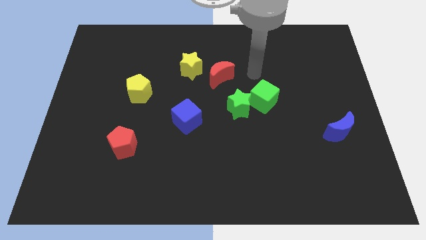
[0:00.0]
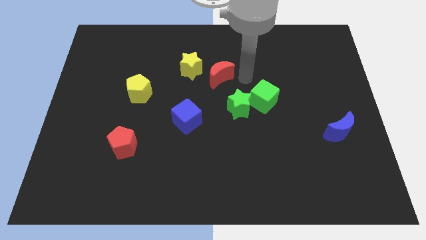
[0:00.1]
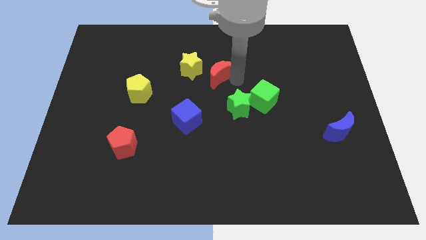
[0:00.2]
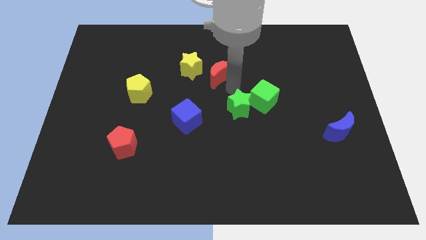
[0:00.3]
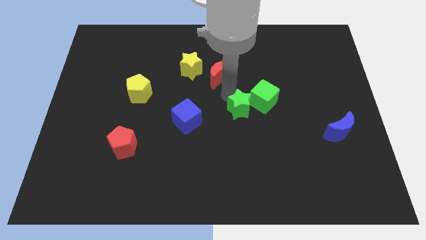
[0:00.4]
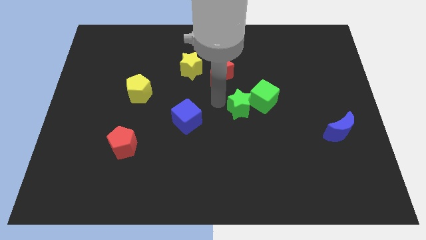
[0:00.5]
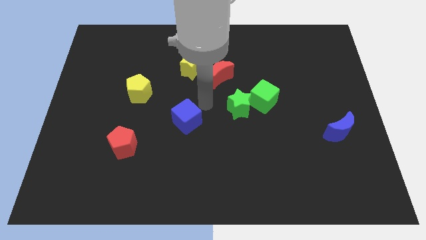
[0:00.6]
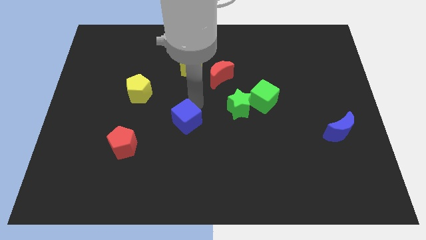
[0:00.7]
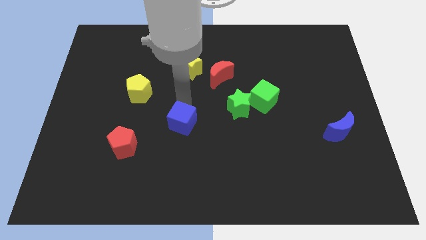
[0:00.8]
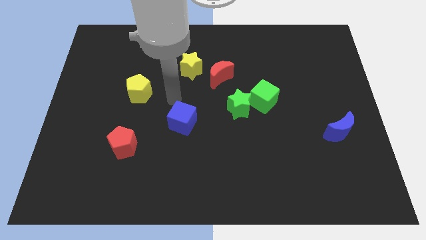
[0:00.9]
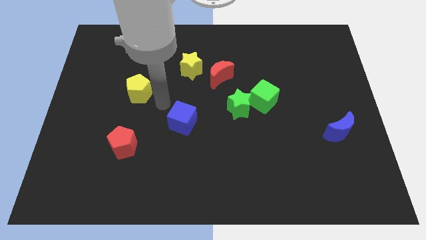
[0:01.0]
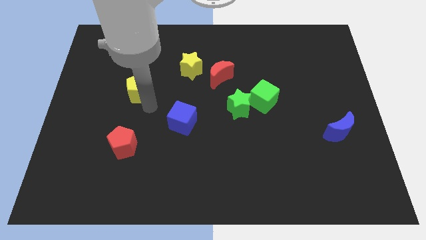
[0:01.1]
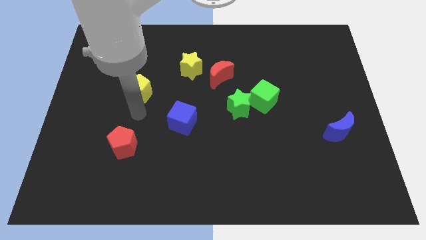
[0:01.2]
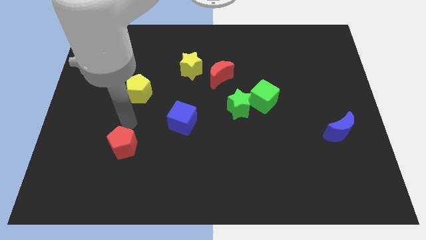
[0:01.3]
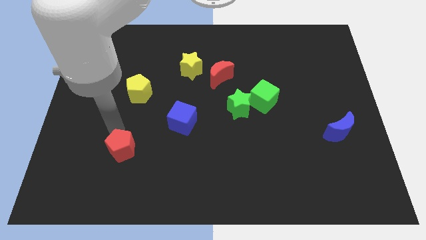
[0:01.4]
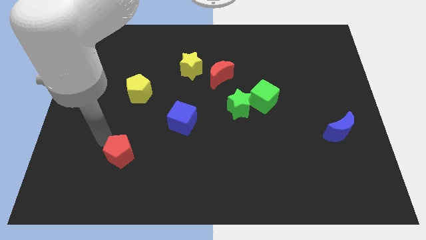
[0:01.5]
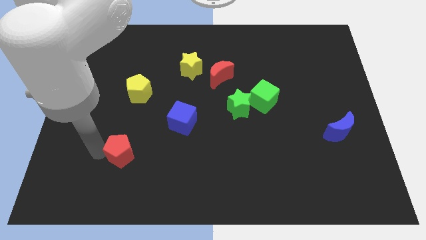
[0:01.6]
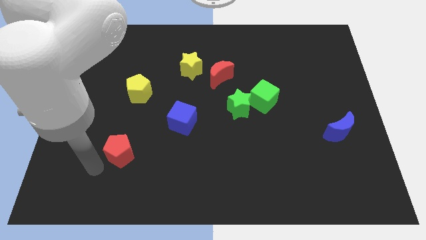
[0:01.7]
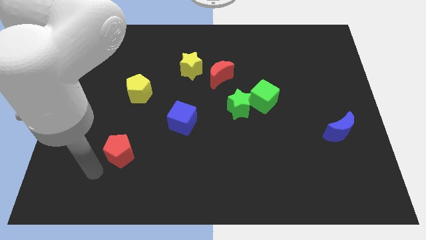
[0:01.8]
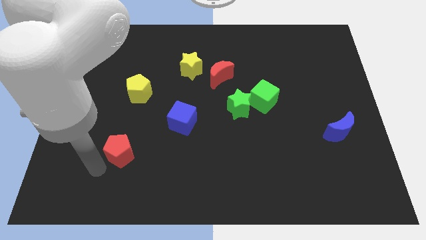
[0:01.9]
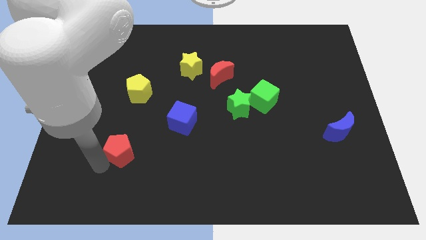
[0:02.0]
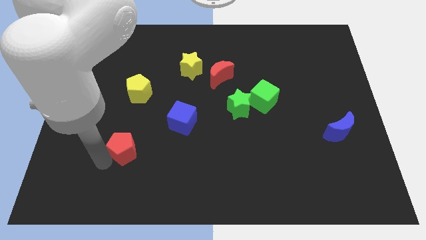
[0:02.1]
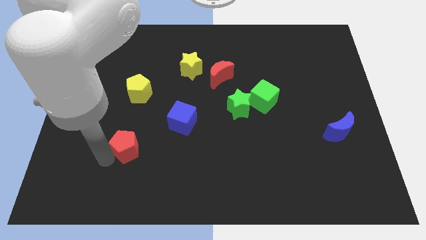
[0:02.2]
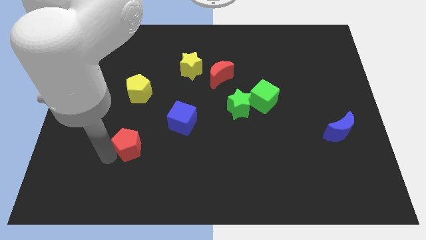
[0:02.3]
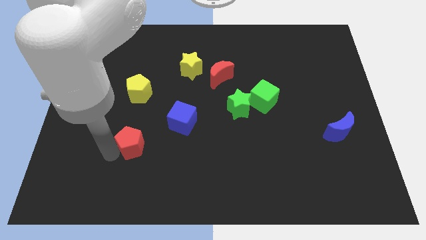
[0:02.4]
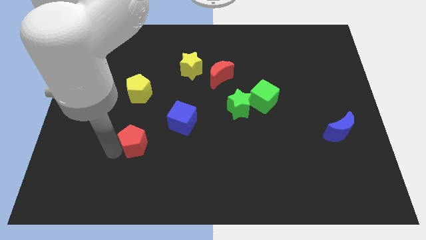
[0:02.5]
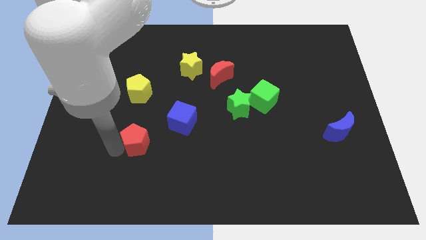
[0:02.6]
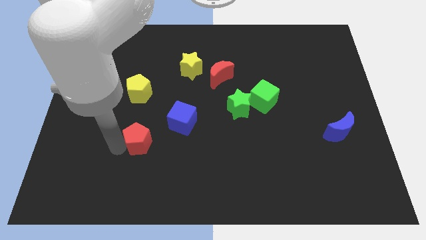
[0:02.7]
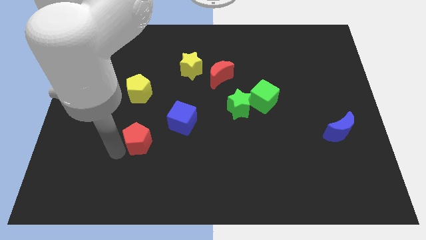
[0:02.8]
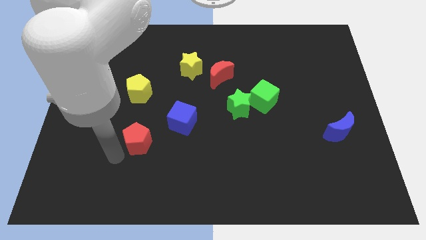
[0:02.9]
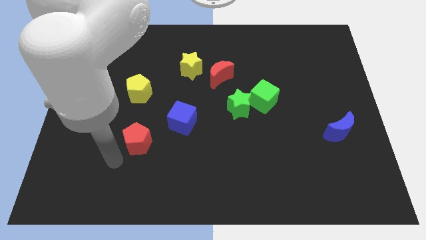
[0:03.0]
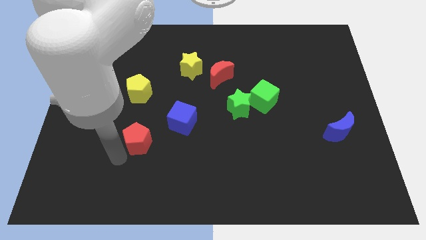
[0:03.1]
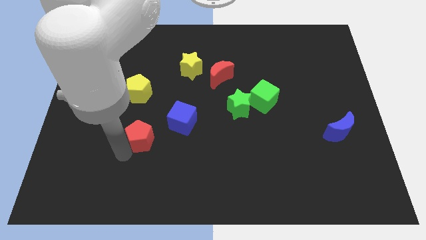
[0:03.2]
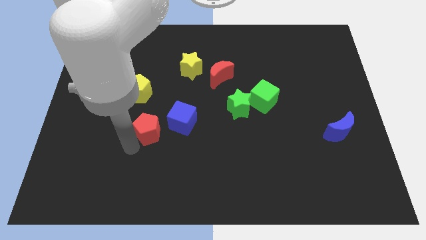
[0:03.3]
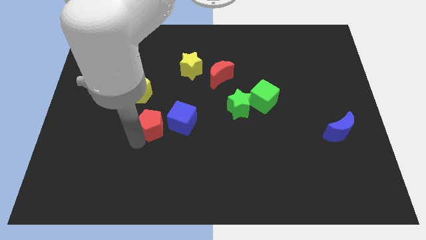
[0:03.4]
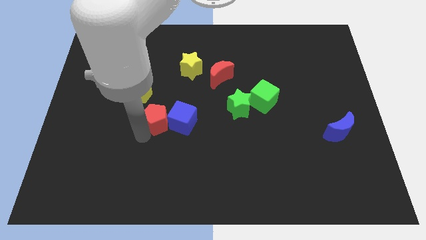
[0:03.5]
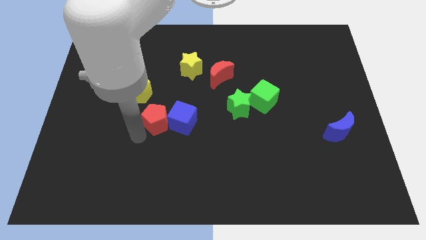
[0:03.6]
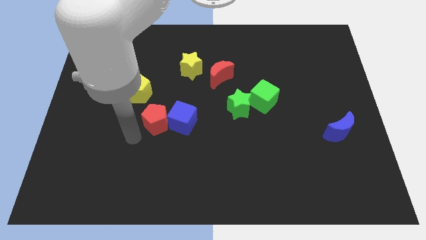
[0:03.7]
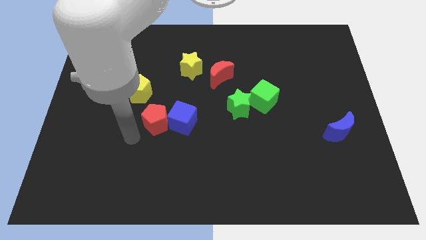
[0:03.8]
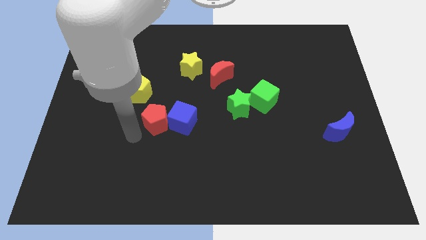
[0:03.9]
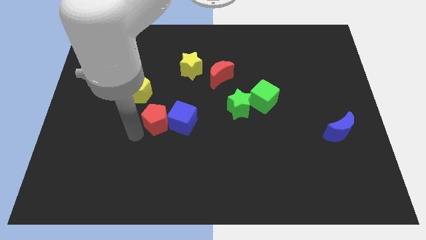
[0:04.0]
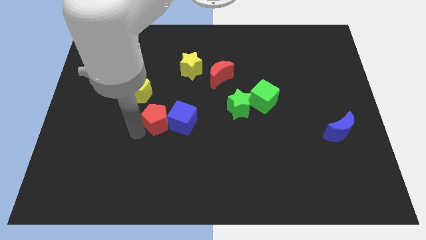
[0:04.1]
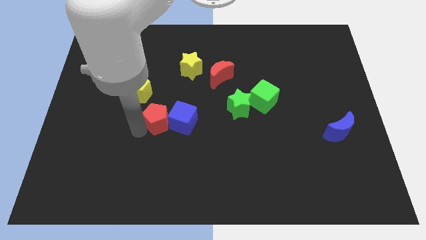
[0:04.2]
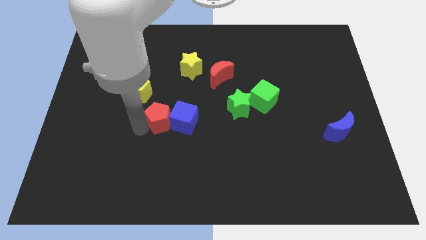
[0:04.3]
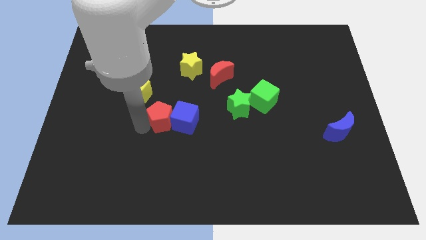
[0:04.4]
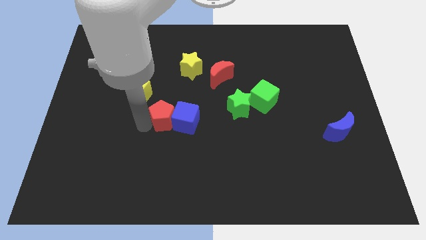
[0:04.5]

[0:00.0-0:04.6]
move the red pentagon to the center of the board

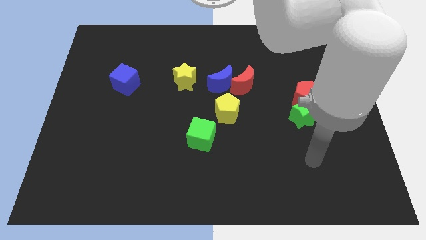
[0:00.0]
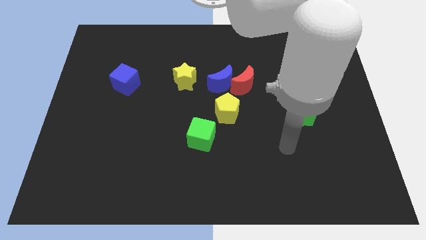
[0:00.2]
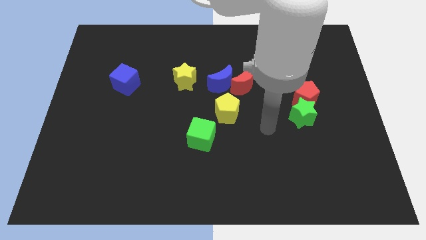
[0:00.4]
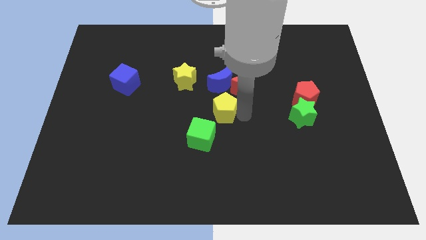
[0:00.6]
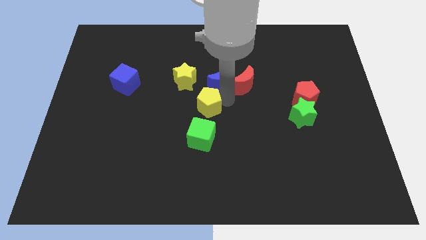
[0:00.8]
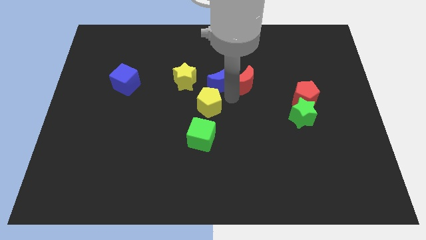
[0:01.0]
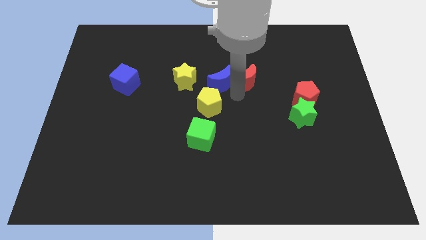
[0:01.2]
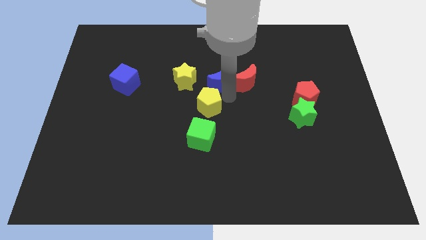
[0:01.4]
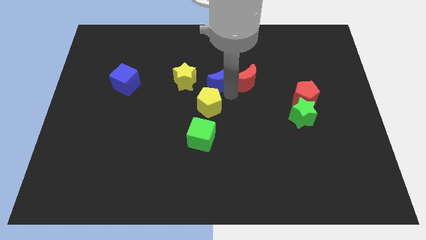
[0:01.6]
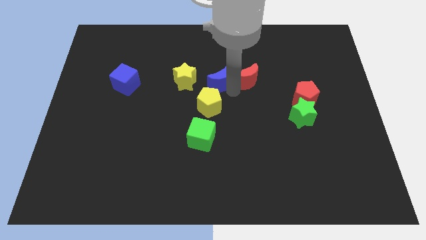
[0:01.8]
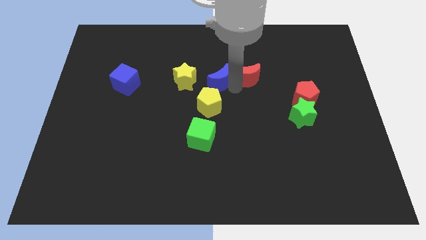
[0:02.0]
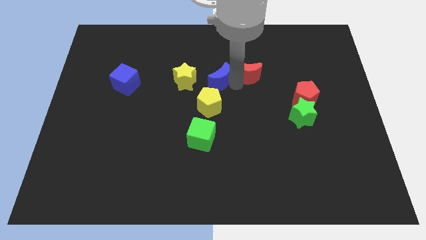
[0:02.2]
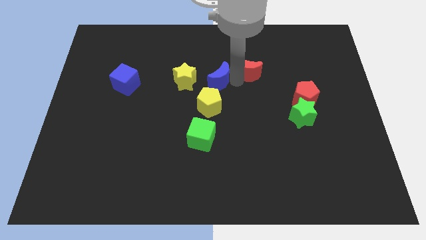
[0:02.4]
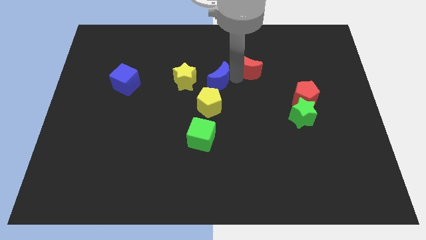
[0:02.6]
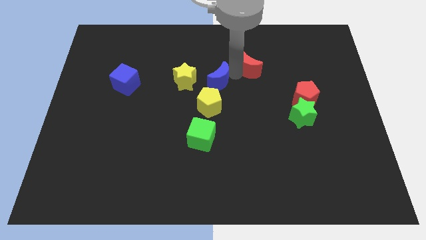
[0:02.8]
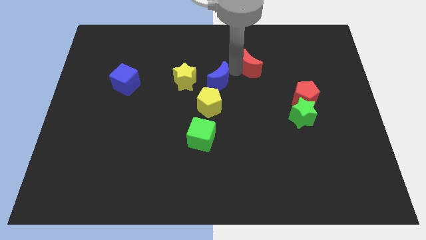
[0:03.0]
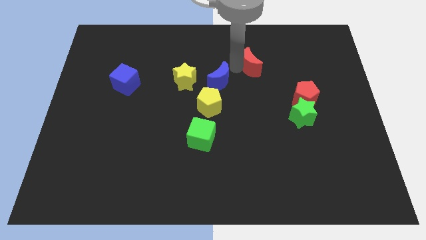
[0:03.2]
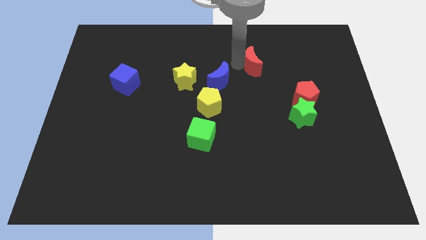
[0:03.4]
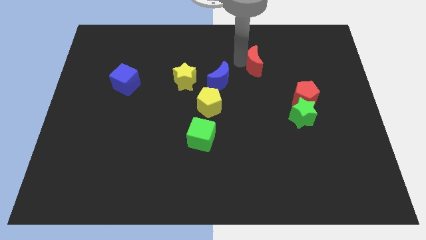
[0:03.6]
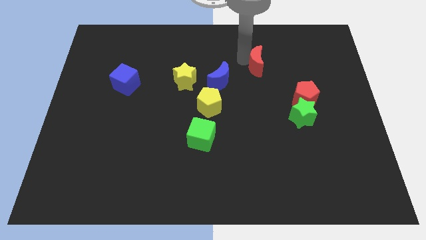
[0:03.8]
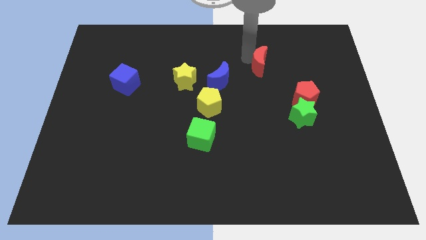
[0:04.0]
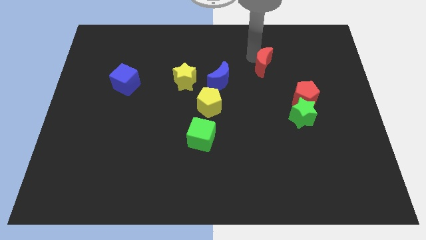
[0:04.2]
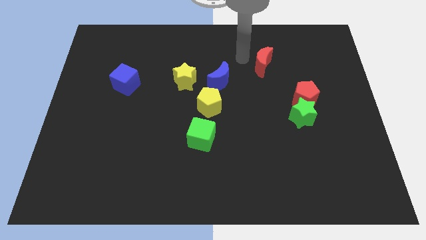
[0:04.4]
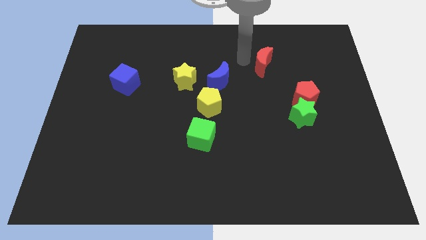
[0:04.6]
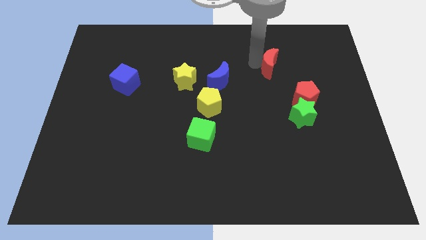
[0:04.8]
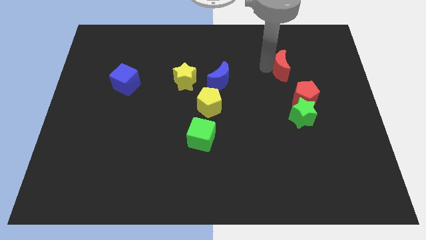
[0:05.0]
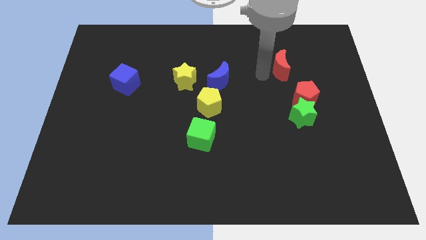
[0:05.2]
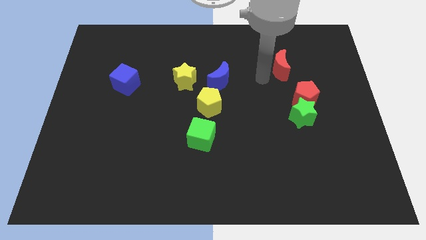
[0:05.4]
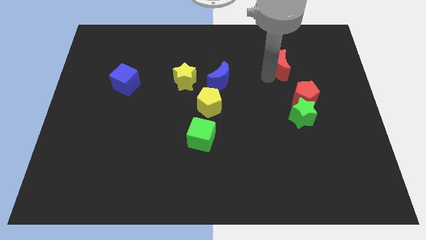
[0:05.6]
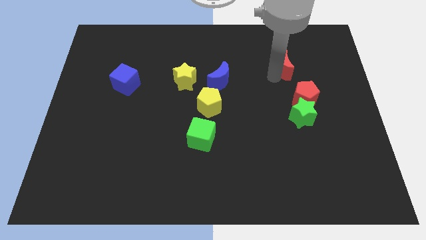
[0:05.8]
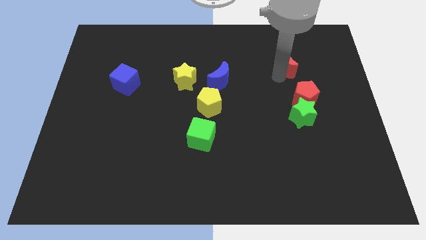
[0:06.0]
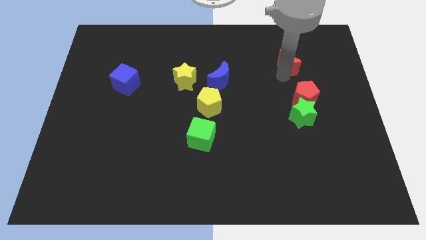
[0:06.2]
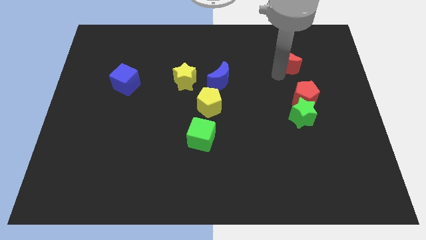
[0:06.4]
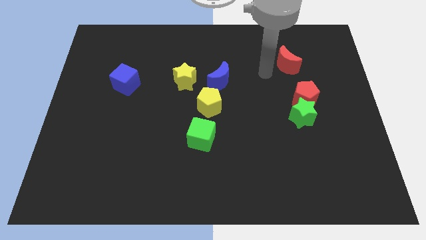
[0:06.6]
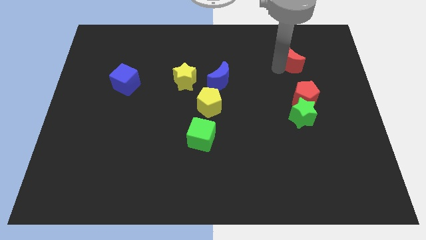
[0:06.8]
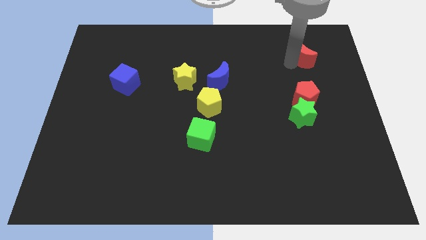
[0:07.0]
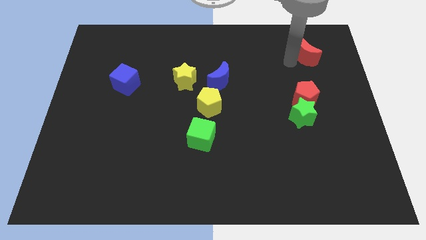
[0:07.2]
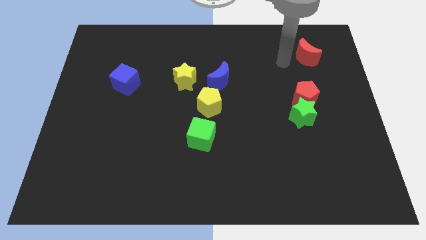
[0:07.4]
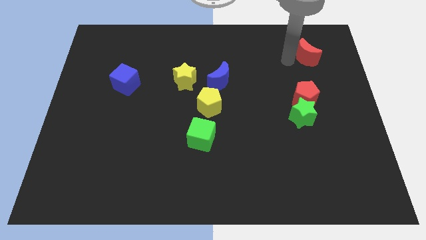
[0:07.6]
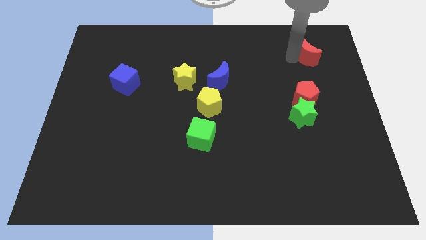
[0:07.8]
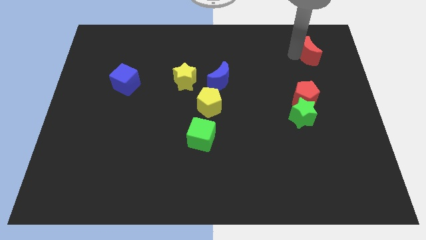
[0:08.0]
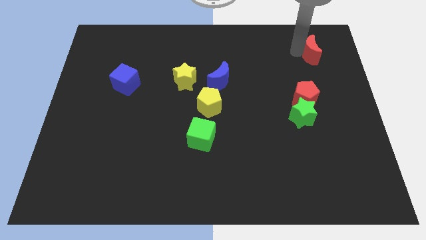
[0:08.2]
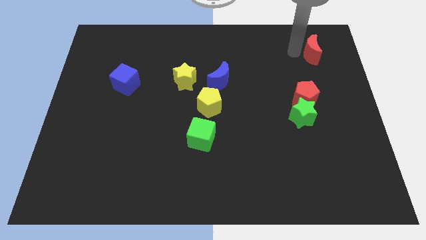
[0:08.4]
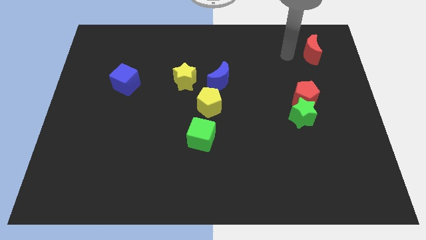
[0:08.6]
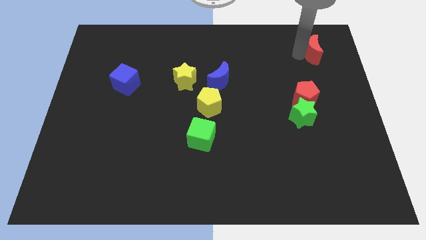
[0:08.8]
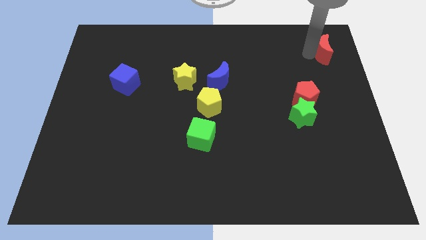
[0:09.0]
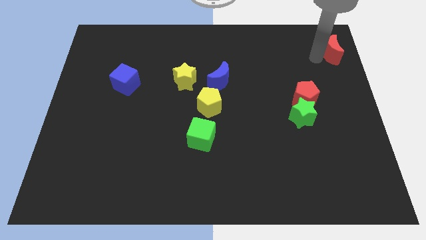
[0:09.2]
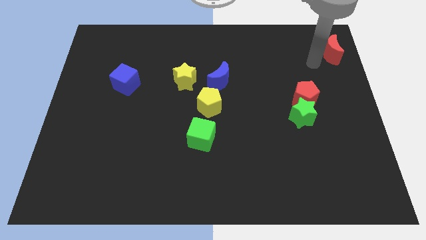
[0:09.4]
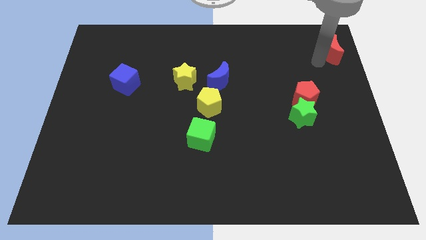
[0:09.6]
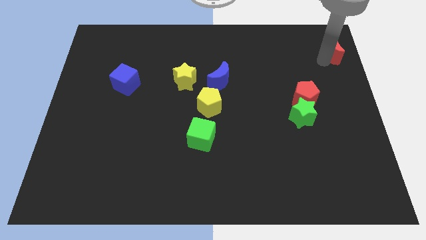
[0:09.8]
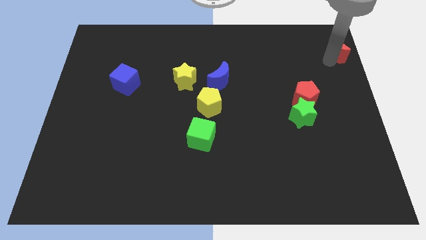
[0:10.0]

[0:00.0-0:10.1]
put the red moon to the top right of the board
